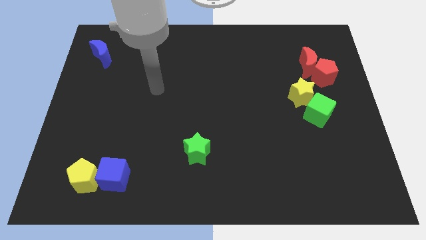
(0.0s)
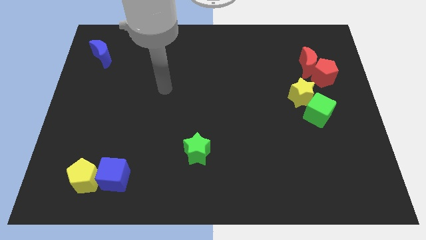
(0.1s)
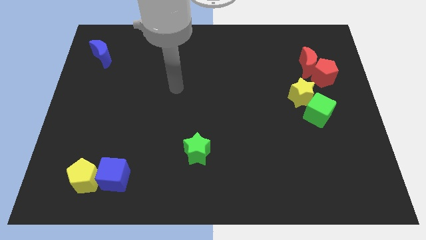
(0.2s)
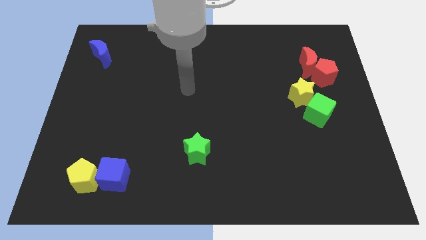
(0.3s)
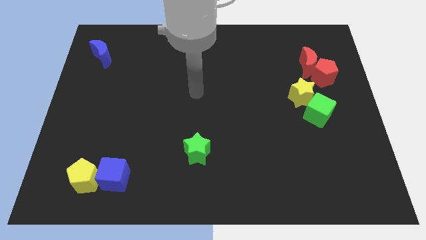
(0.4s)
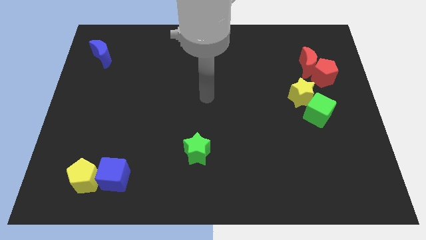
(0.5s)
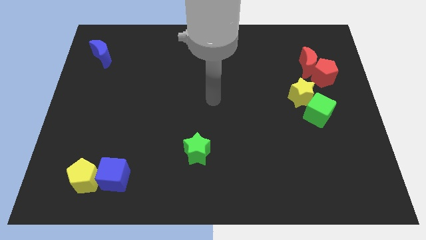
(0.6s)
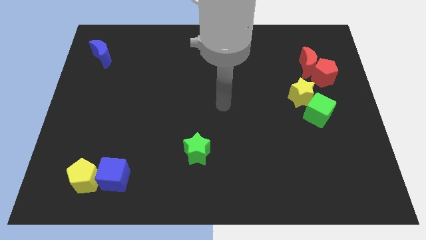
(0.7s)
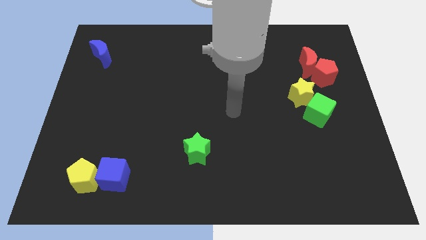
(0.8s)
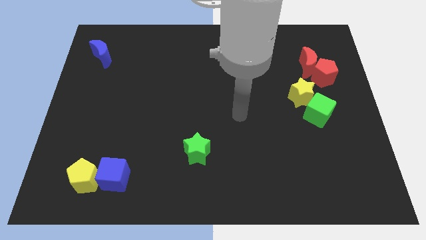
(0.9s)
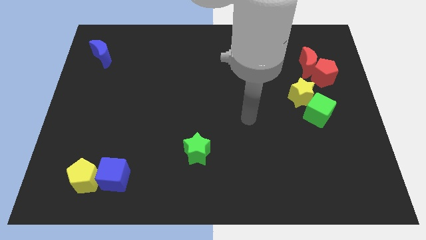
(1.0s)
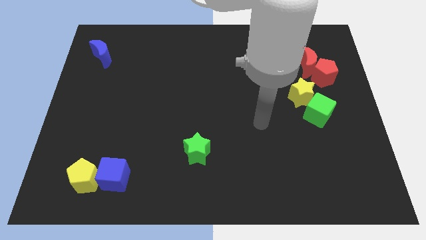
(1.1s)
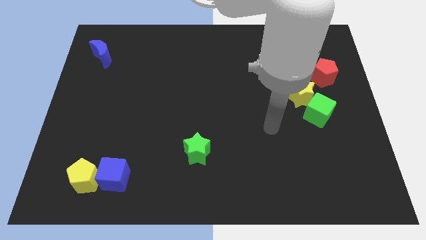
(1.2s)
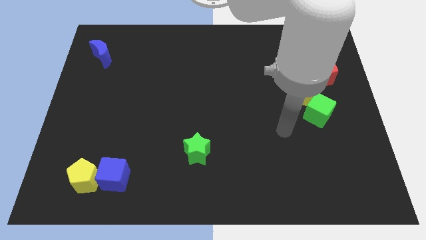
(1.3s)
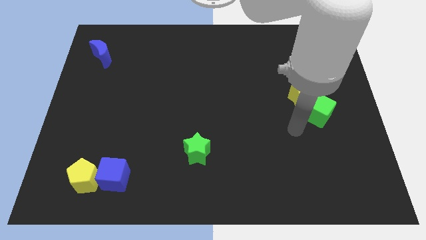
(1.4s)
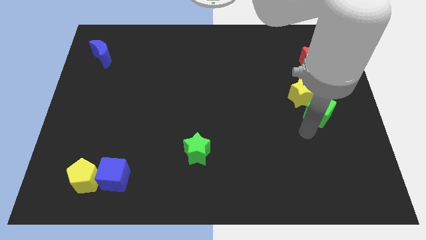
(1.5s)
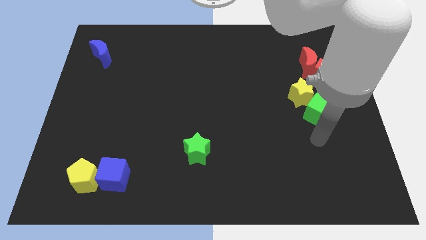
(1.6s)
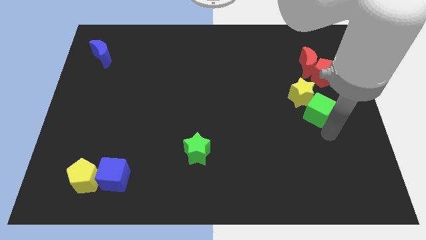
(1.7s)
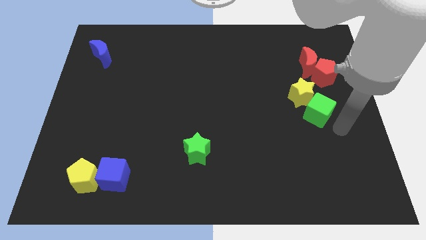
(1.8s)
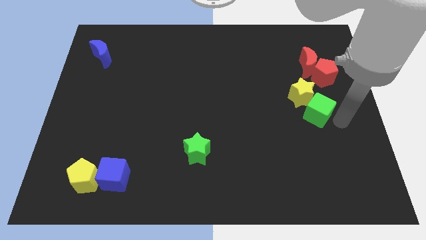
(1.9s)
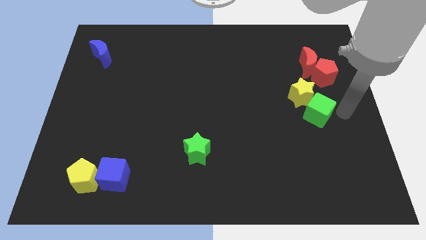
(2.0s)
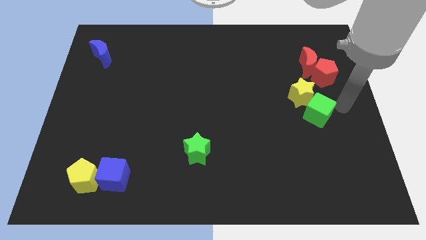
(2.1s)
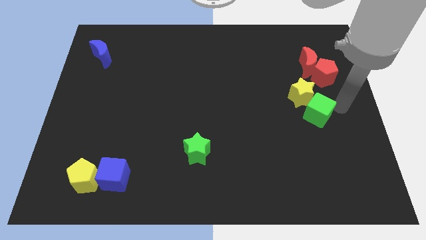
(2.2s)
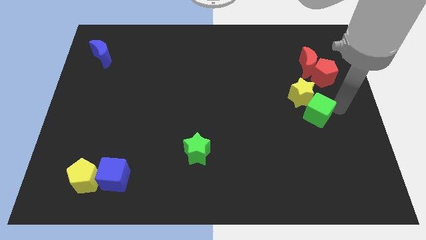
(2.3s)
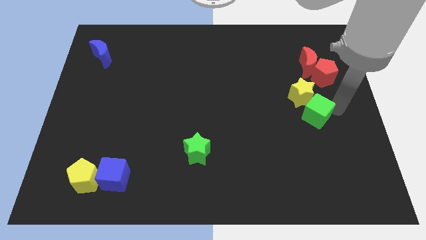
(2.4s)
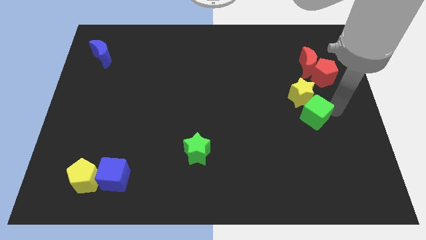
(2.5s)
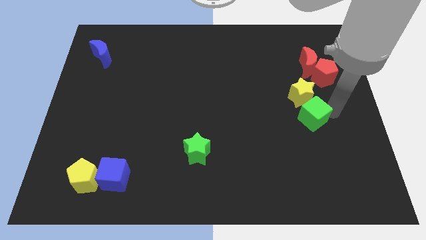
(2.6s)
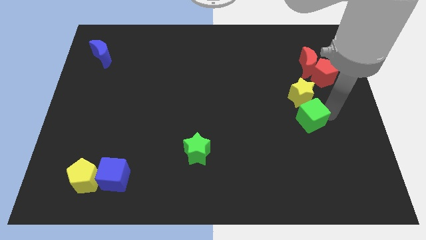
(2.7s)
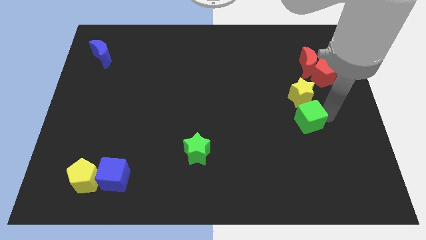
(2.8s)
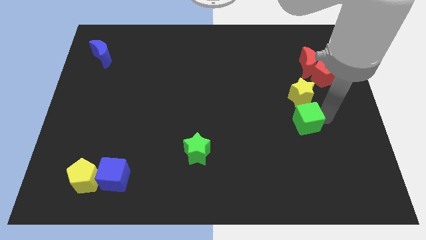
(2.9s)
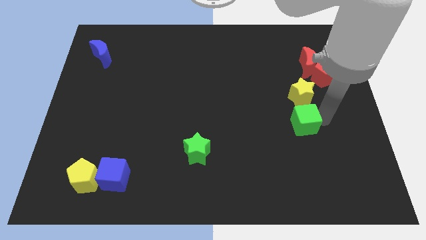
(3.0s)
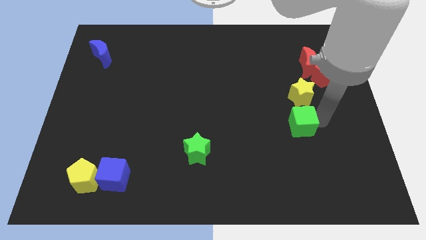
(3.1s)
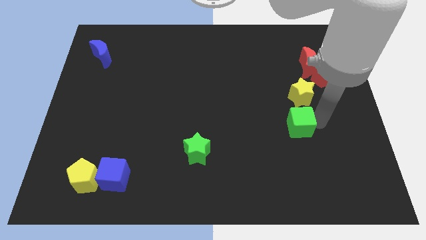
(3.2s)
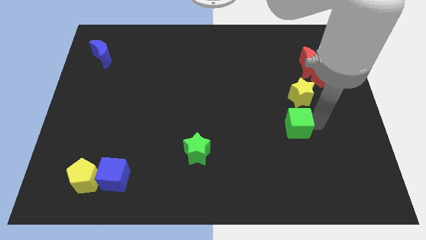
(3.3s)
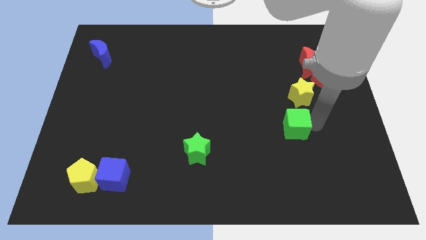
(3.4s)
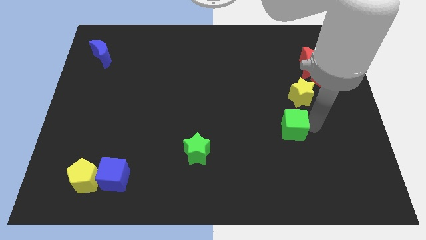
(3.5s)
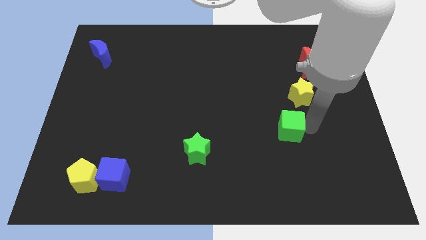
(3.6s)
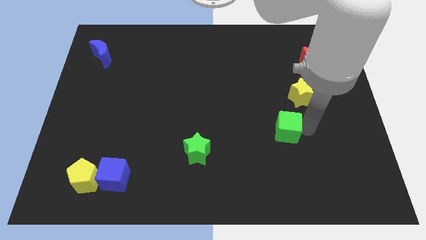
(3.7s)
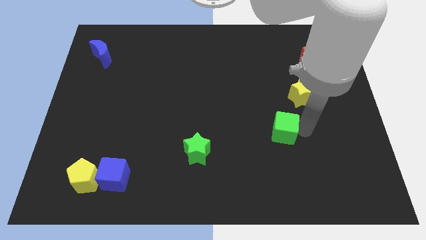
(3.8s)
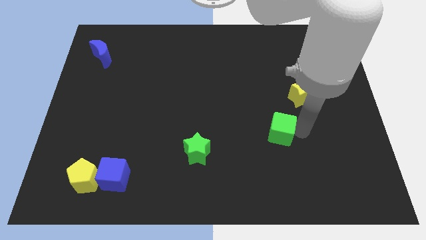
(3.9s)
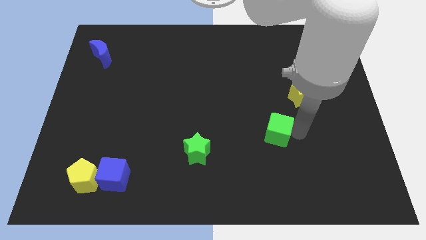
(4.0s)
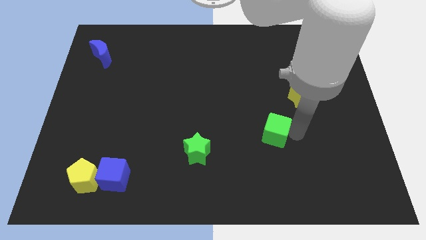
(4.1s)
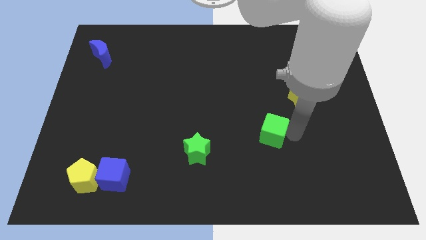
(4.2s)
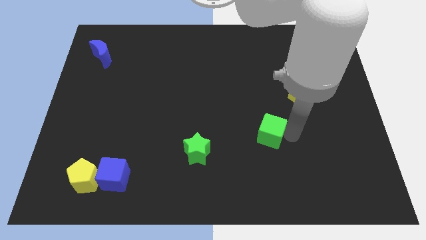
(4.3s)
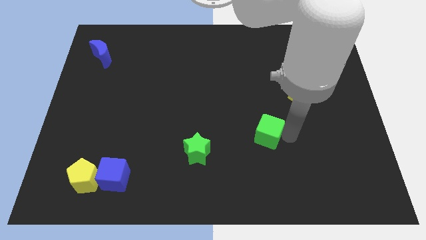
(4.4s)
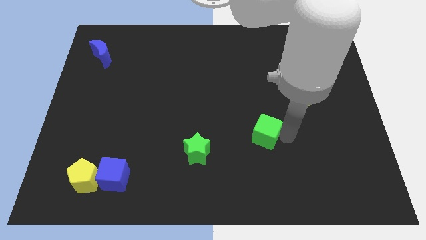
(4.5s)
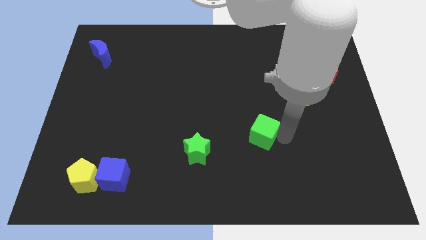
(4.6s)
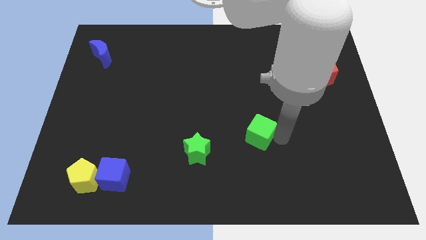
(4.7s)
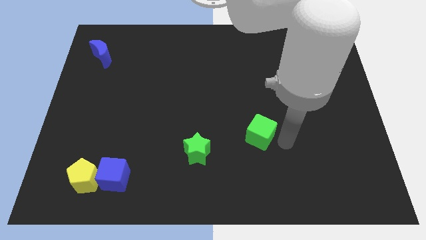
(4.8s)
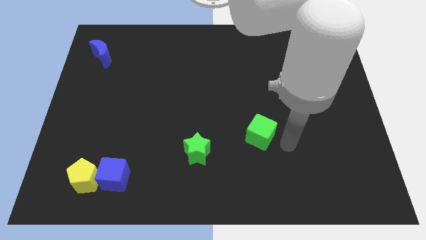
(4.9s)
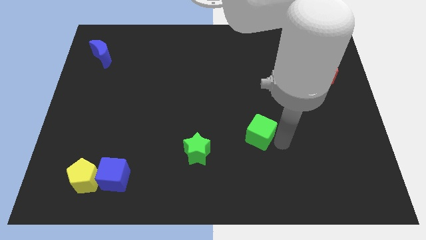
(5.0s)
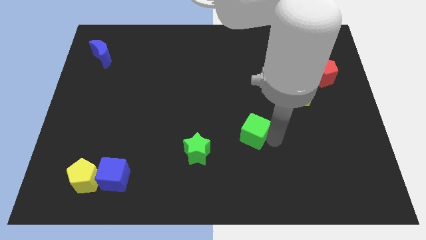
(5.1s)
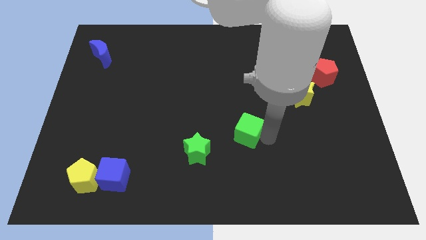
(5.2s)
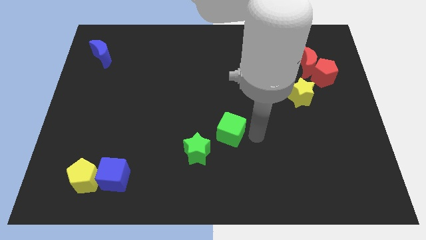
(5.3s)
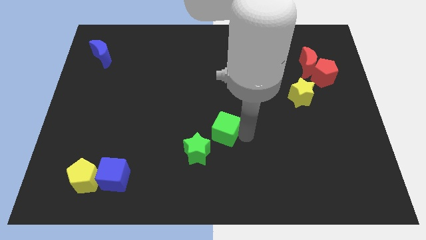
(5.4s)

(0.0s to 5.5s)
slide the green cube to the left

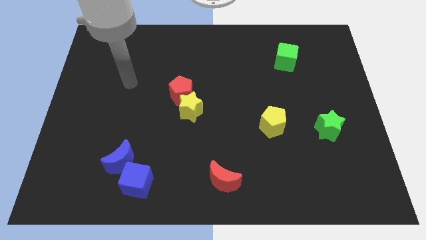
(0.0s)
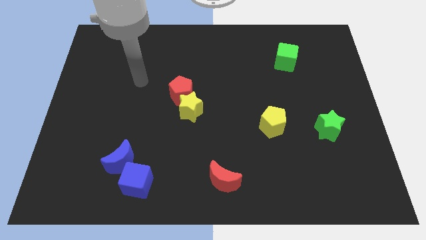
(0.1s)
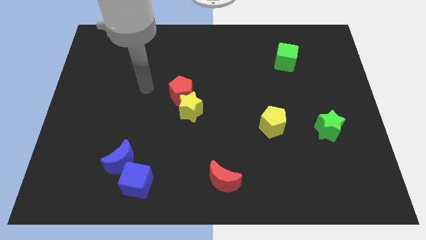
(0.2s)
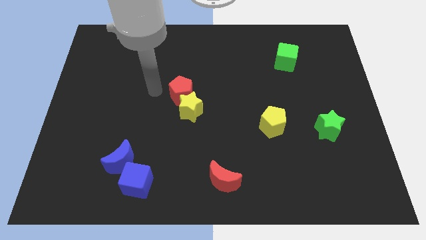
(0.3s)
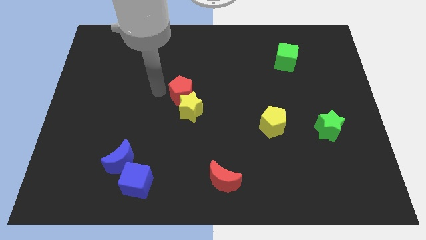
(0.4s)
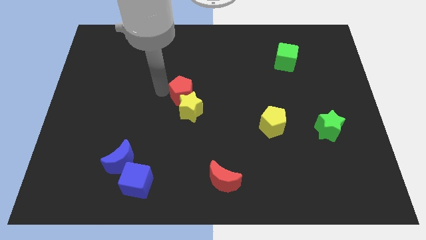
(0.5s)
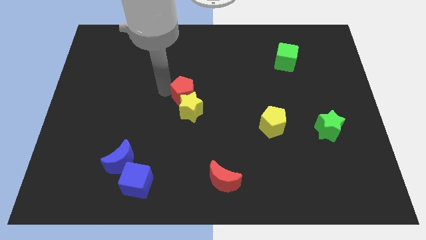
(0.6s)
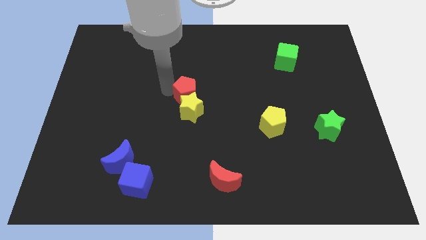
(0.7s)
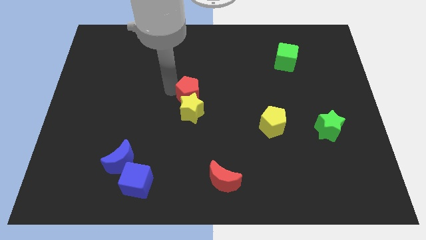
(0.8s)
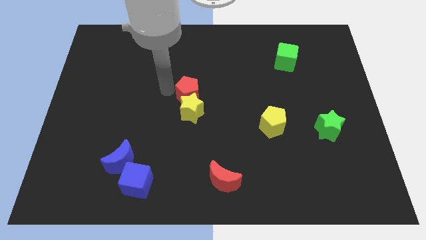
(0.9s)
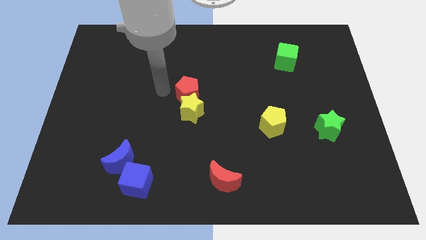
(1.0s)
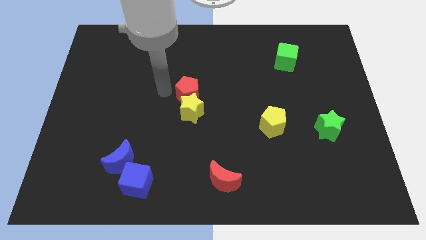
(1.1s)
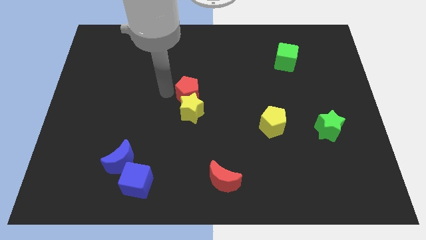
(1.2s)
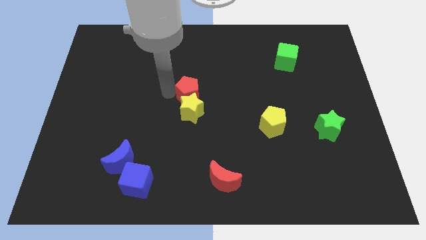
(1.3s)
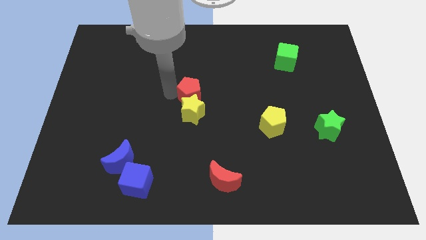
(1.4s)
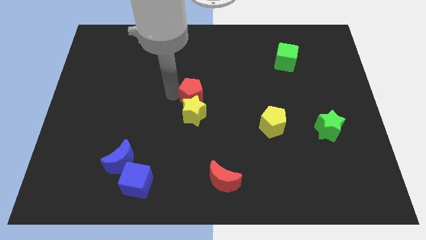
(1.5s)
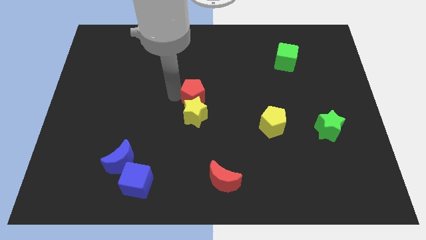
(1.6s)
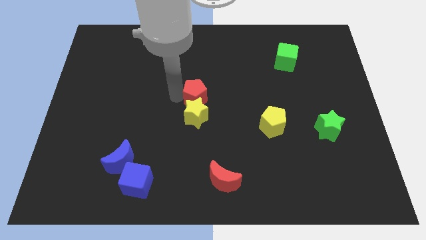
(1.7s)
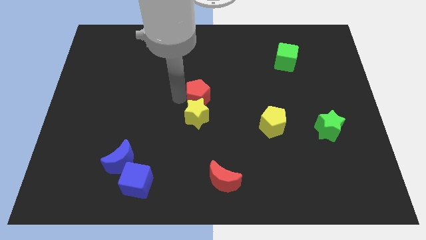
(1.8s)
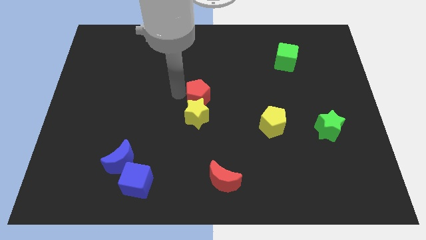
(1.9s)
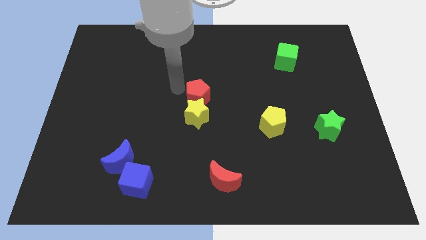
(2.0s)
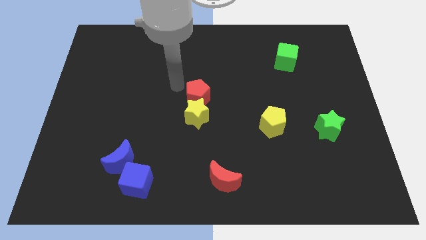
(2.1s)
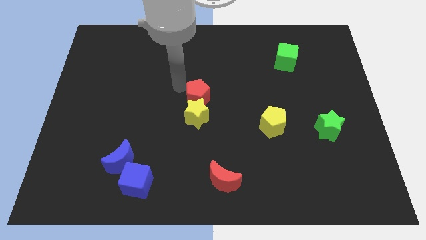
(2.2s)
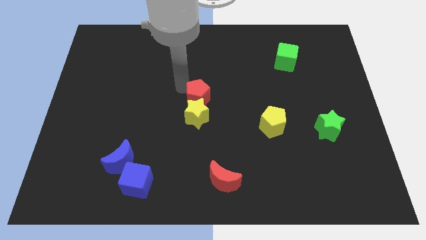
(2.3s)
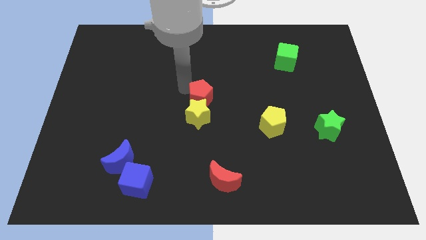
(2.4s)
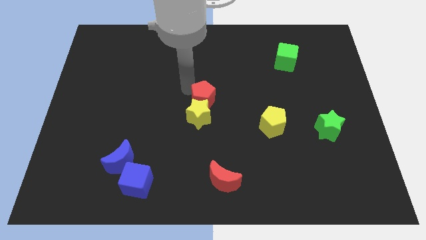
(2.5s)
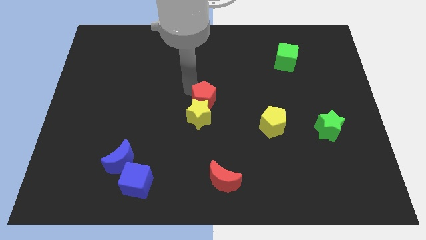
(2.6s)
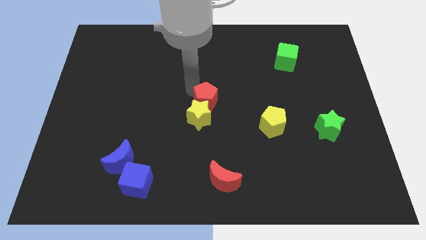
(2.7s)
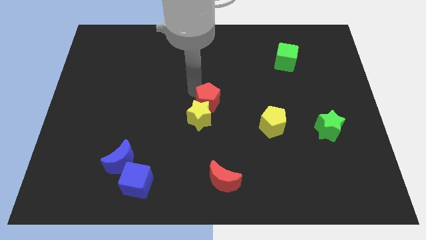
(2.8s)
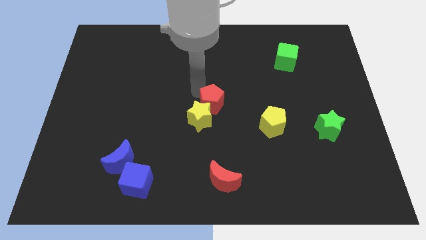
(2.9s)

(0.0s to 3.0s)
move the red pentagon downwards and right somewhat
